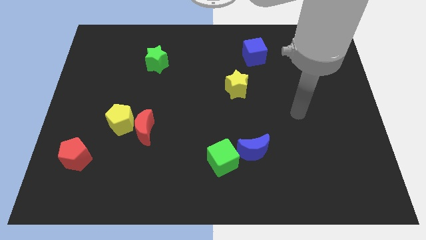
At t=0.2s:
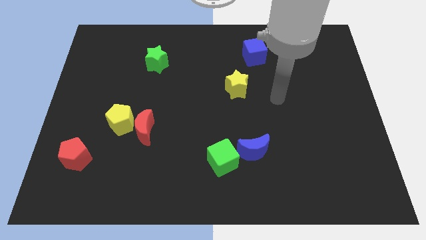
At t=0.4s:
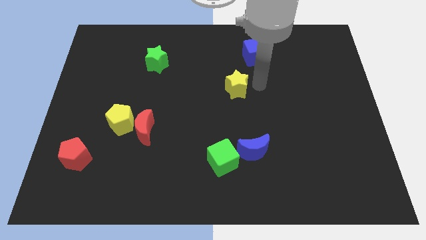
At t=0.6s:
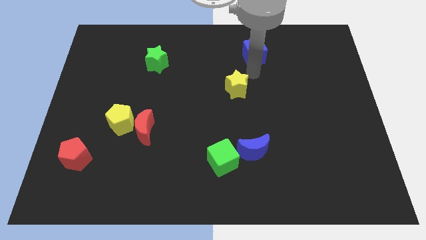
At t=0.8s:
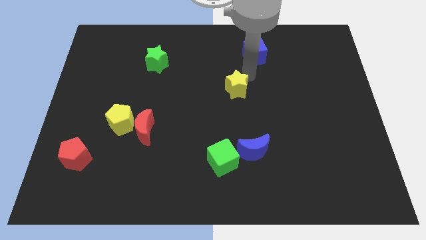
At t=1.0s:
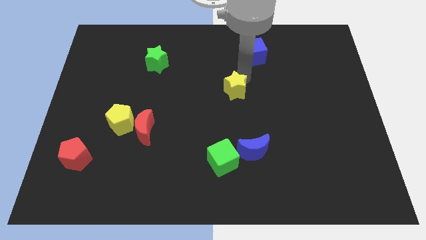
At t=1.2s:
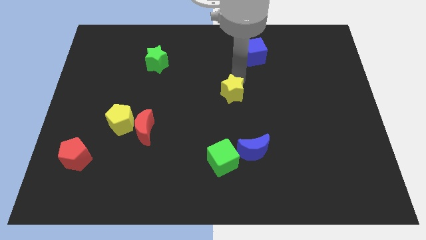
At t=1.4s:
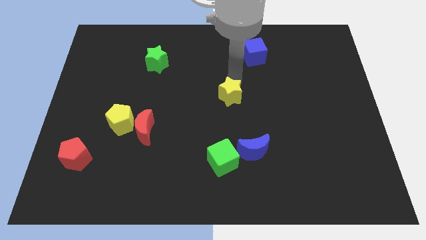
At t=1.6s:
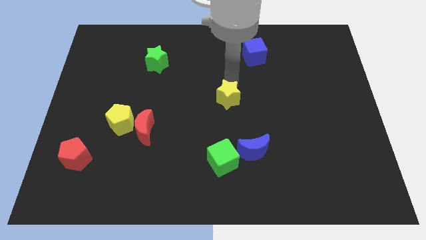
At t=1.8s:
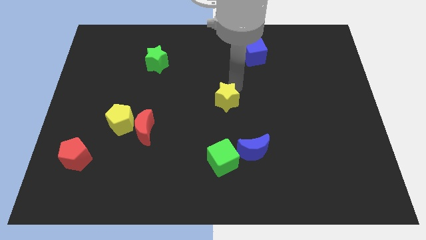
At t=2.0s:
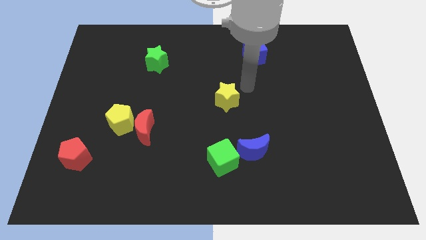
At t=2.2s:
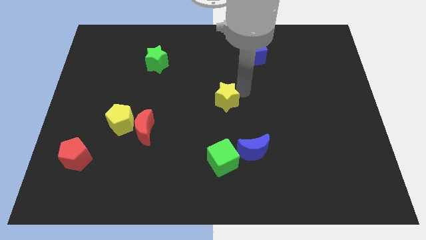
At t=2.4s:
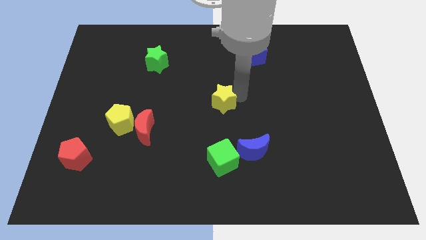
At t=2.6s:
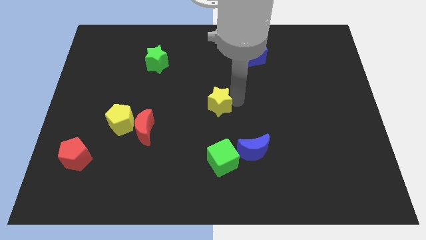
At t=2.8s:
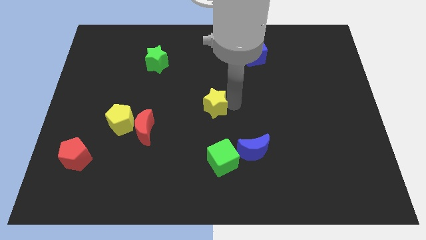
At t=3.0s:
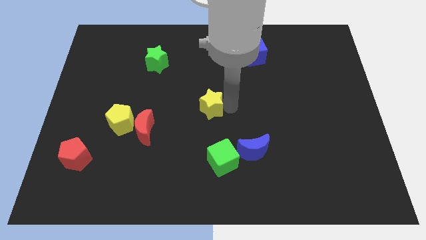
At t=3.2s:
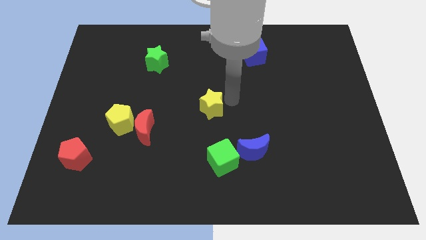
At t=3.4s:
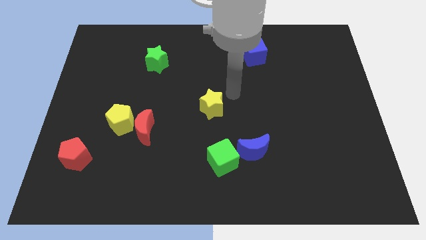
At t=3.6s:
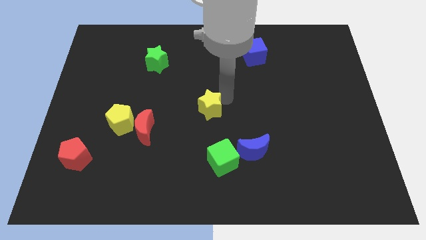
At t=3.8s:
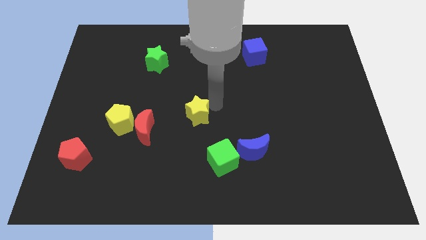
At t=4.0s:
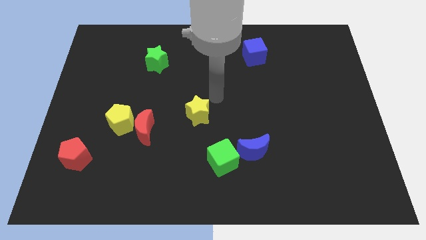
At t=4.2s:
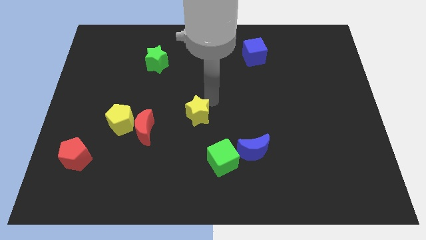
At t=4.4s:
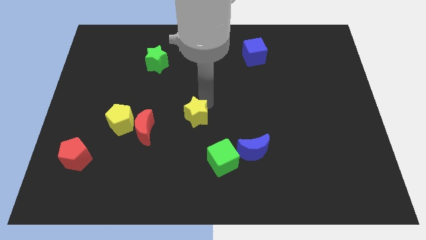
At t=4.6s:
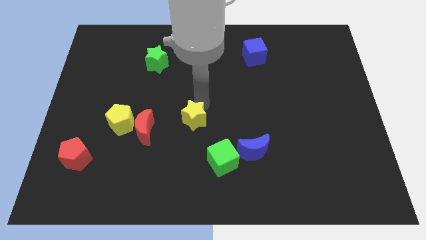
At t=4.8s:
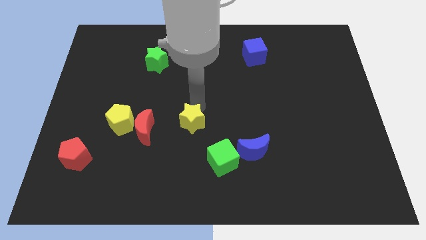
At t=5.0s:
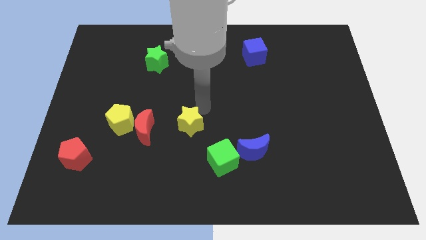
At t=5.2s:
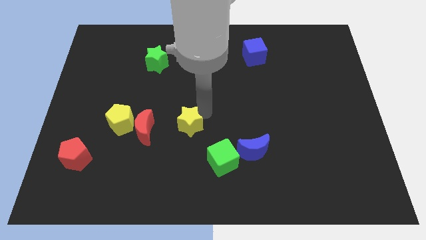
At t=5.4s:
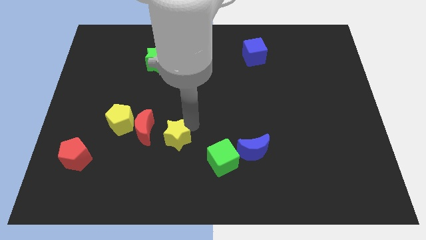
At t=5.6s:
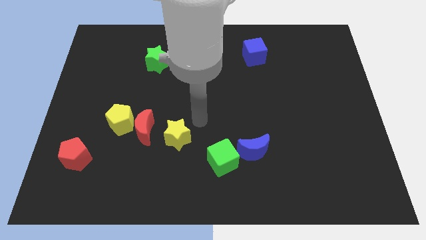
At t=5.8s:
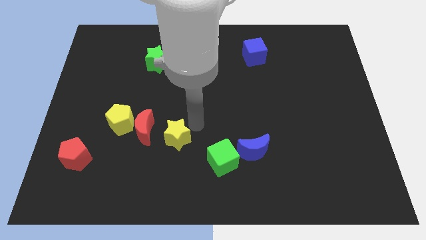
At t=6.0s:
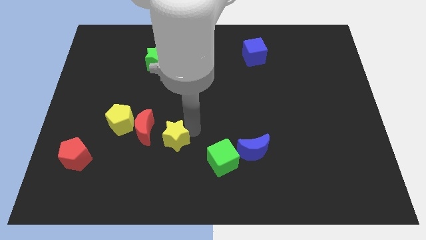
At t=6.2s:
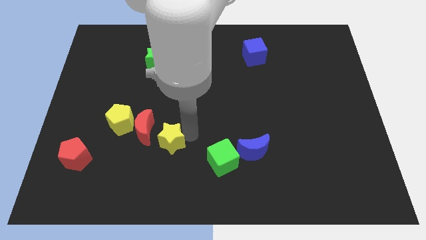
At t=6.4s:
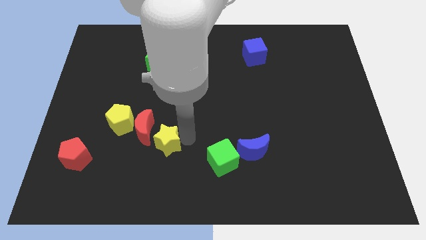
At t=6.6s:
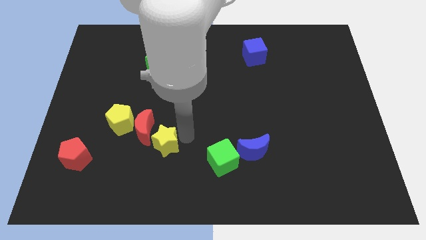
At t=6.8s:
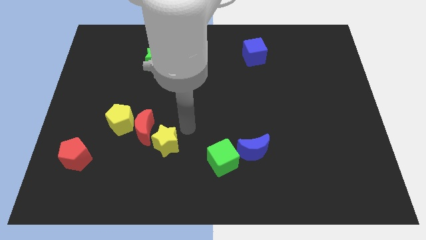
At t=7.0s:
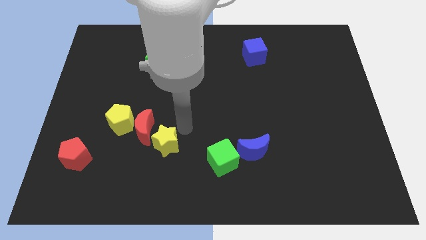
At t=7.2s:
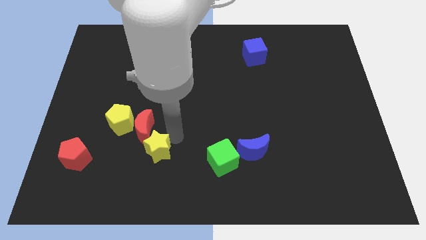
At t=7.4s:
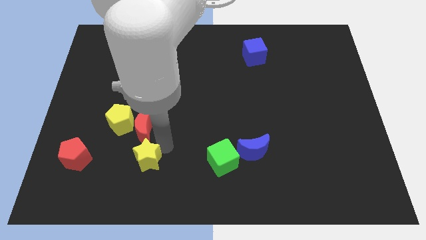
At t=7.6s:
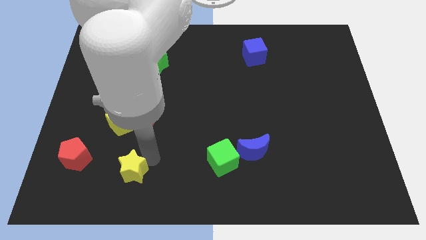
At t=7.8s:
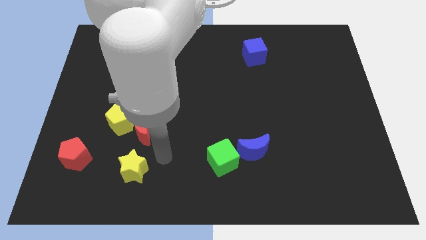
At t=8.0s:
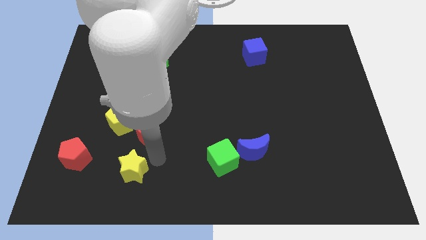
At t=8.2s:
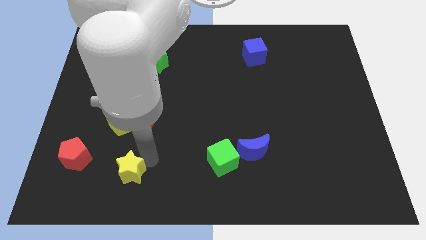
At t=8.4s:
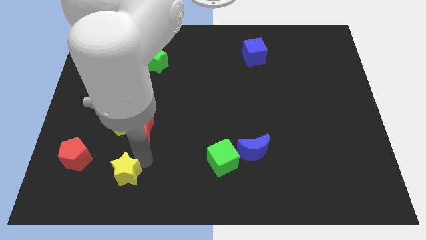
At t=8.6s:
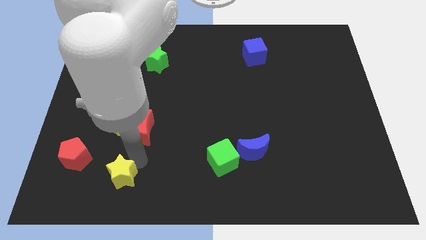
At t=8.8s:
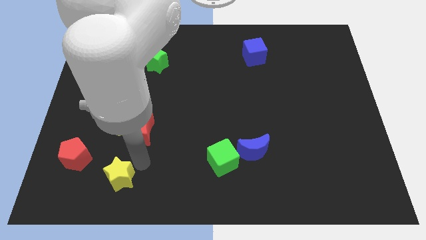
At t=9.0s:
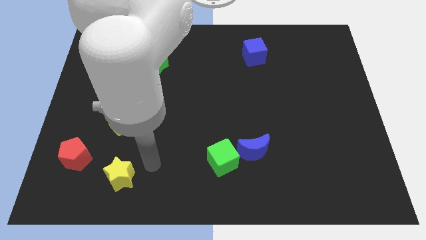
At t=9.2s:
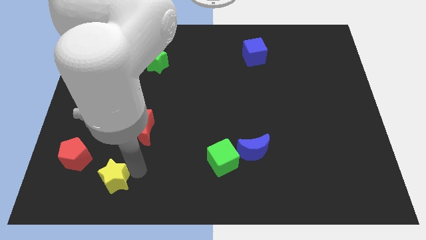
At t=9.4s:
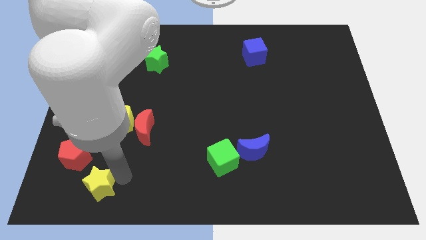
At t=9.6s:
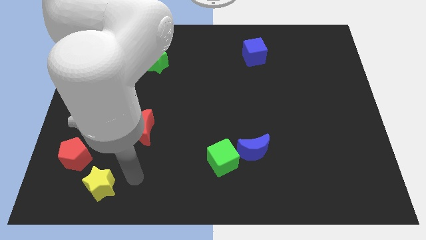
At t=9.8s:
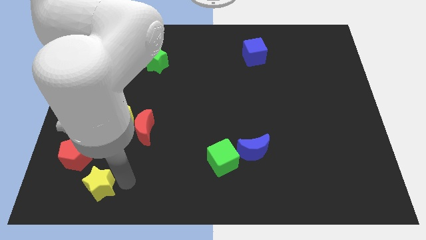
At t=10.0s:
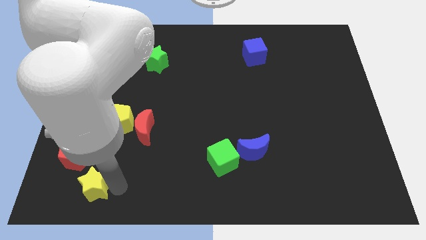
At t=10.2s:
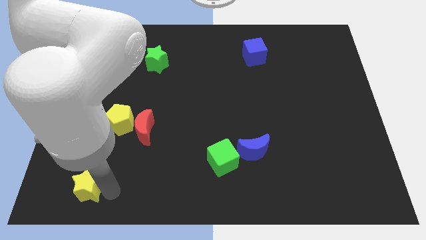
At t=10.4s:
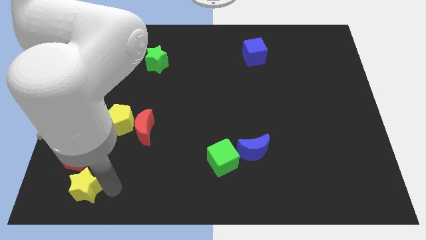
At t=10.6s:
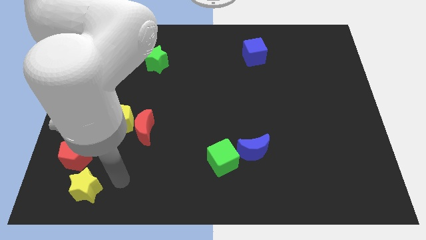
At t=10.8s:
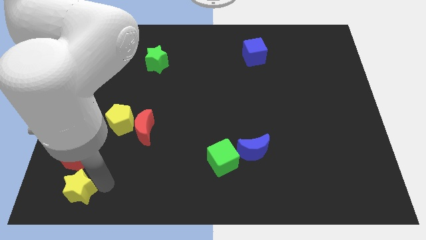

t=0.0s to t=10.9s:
slide the yellow star to the bottom left

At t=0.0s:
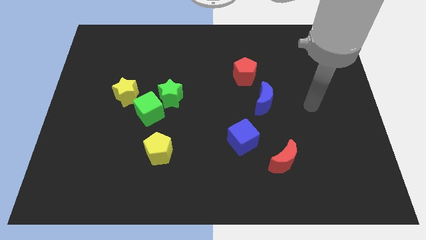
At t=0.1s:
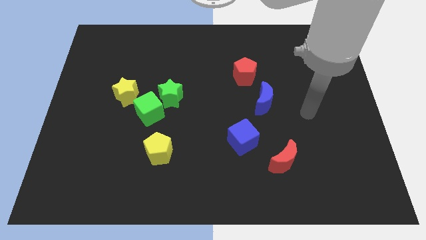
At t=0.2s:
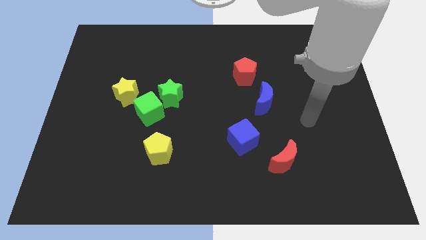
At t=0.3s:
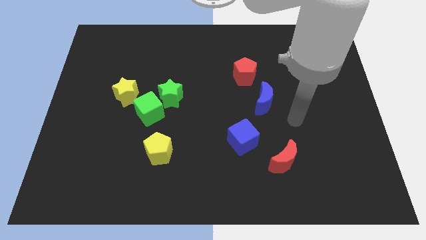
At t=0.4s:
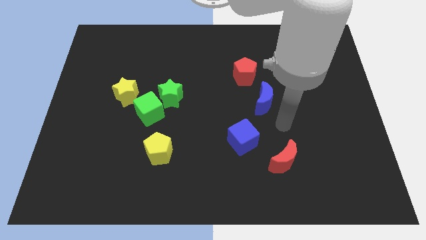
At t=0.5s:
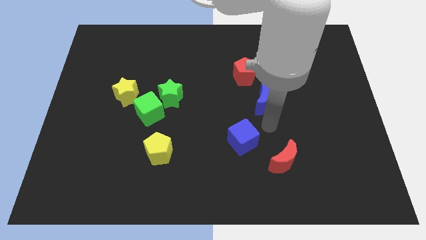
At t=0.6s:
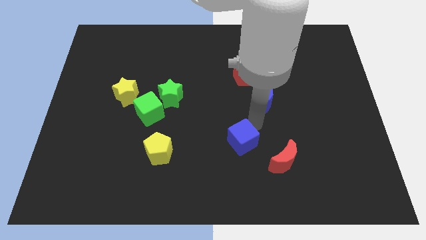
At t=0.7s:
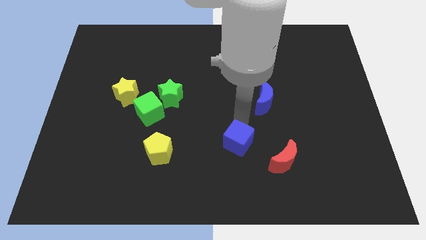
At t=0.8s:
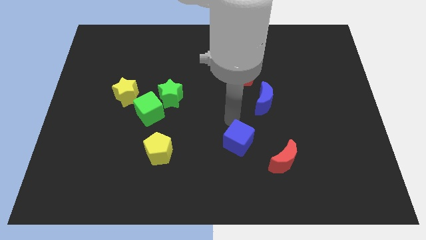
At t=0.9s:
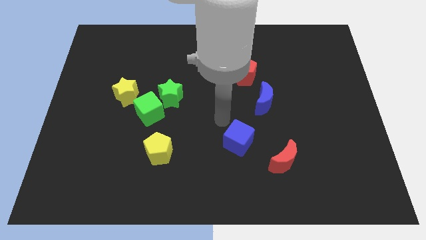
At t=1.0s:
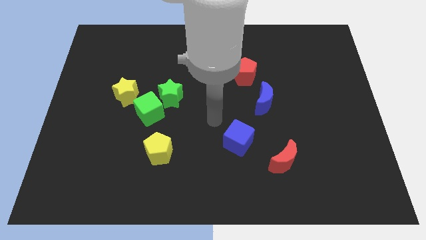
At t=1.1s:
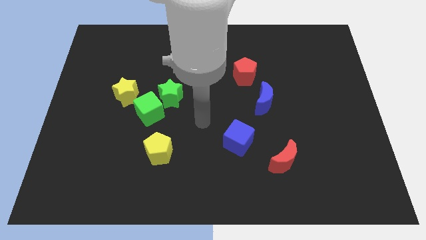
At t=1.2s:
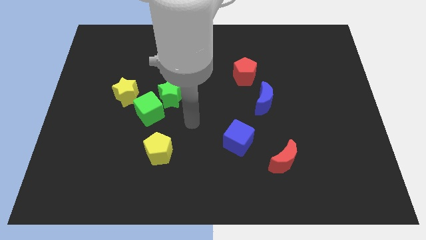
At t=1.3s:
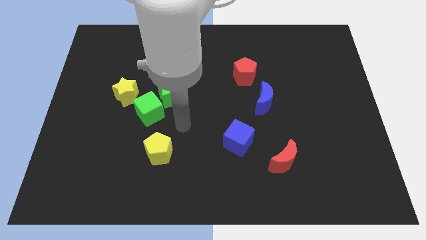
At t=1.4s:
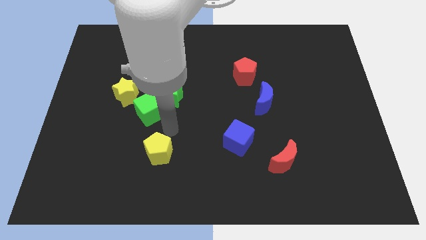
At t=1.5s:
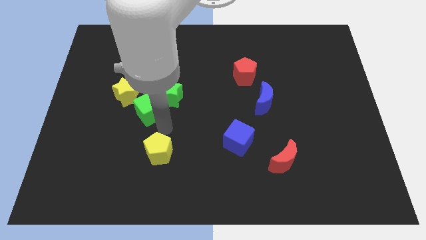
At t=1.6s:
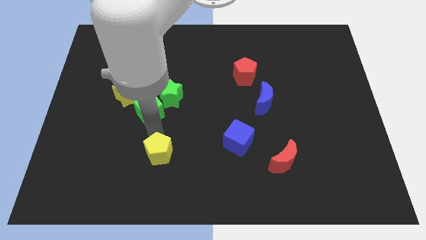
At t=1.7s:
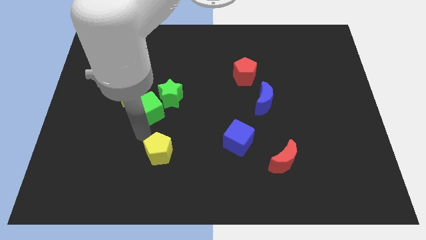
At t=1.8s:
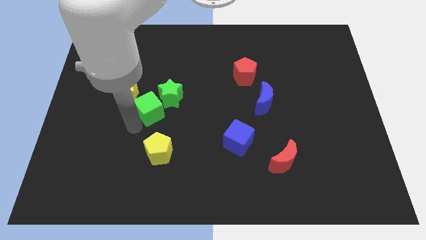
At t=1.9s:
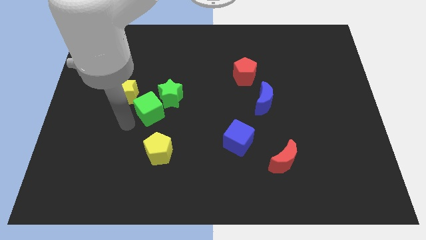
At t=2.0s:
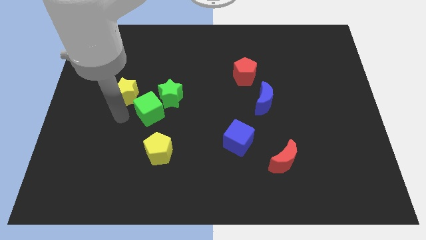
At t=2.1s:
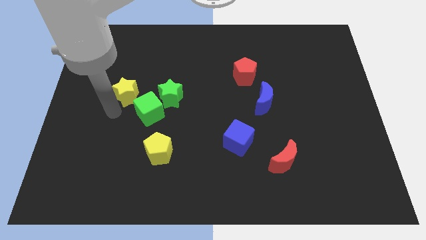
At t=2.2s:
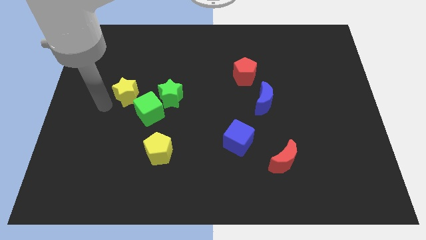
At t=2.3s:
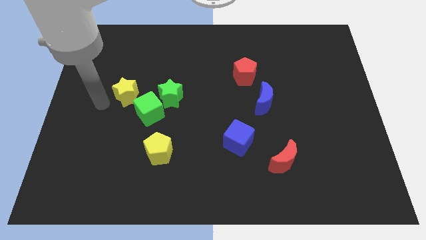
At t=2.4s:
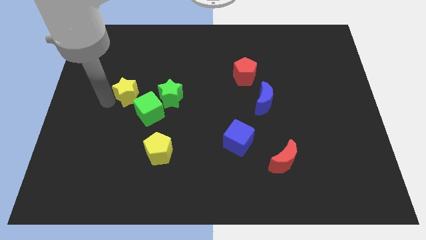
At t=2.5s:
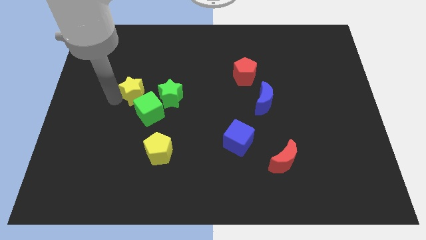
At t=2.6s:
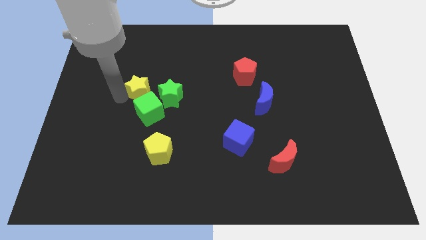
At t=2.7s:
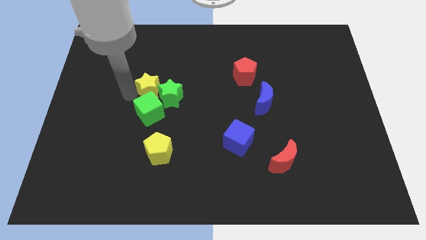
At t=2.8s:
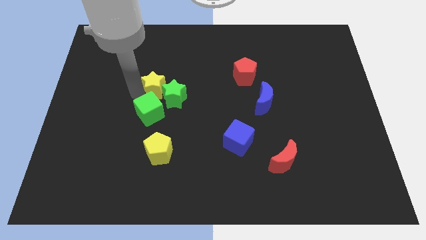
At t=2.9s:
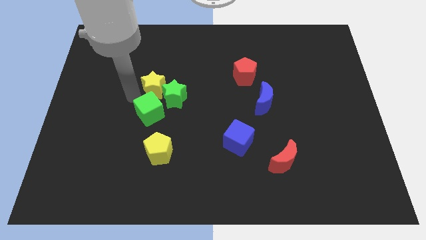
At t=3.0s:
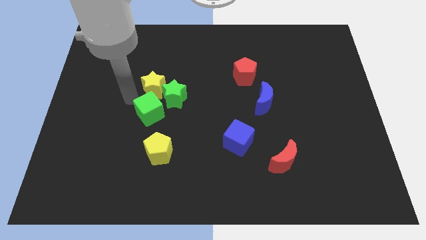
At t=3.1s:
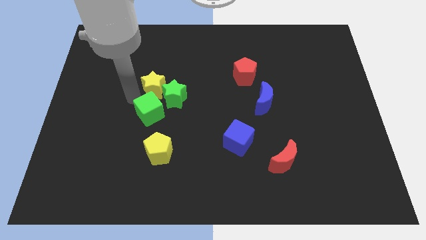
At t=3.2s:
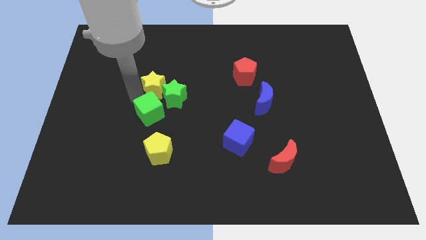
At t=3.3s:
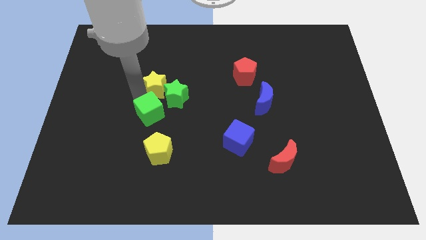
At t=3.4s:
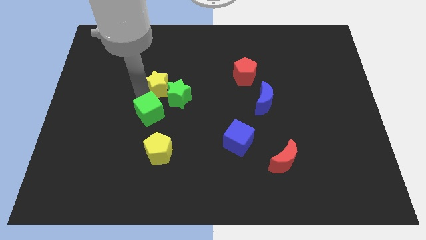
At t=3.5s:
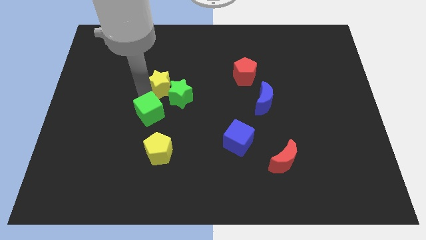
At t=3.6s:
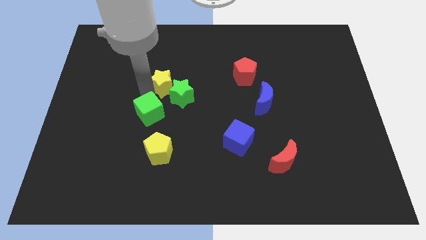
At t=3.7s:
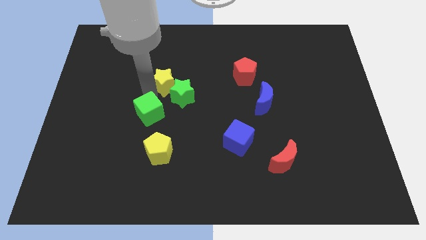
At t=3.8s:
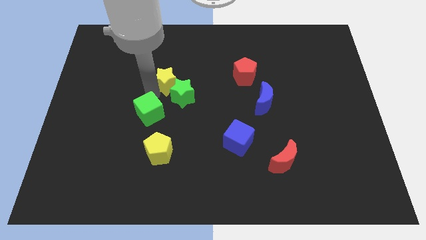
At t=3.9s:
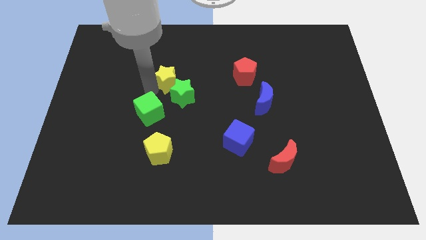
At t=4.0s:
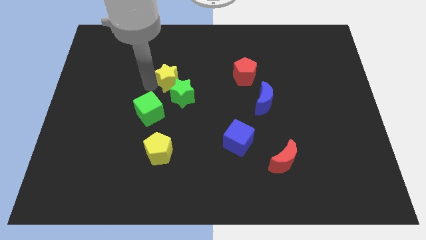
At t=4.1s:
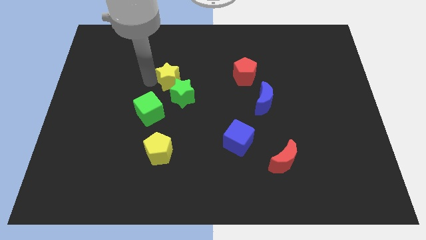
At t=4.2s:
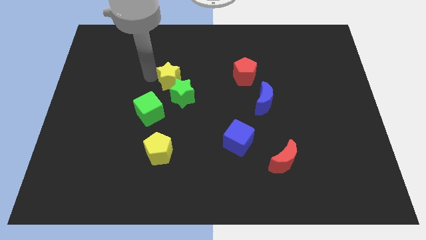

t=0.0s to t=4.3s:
push the yellow star to the middle of the board
